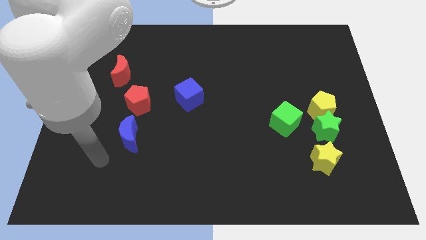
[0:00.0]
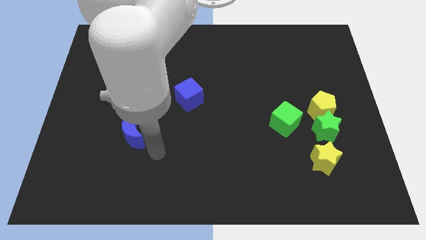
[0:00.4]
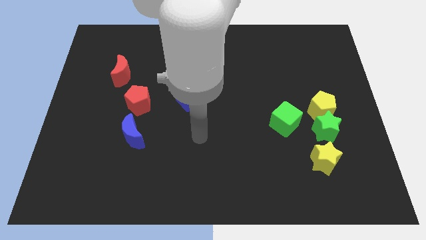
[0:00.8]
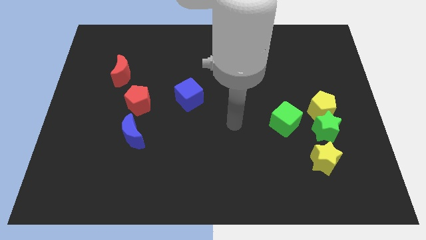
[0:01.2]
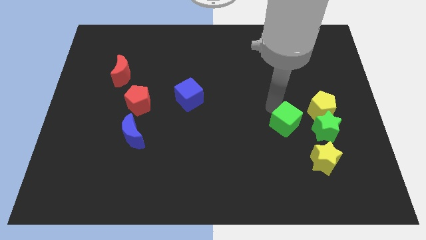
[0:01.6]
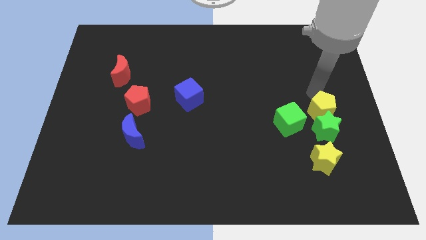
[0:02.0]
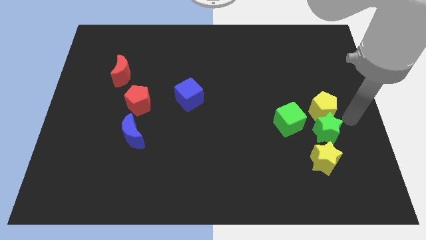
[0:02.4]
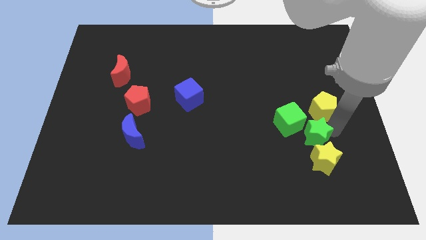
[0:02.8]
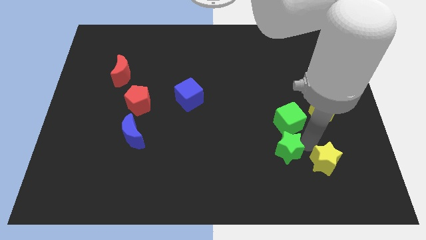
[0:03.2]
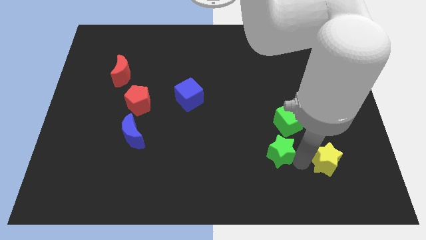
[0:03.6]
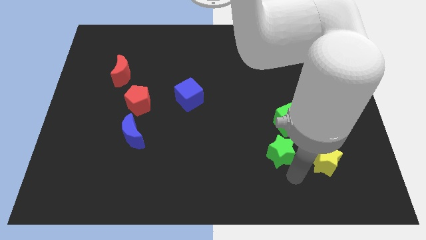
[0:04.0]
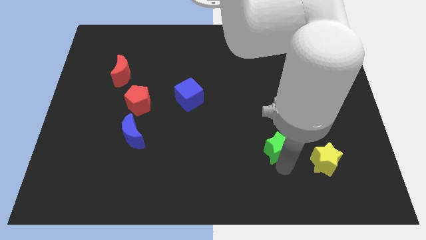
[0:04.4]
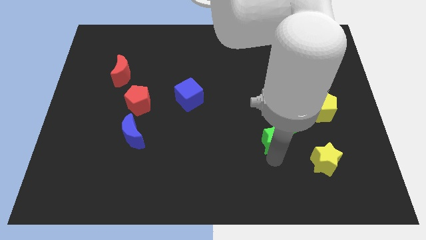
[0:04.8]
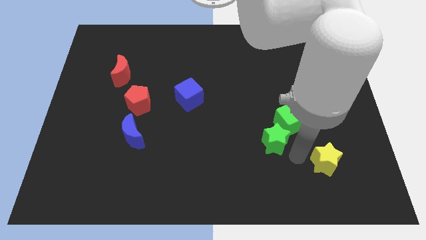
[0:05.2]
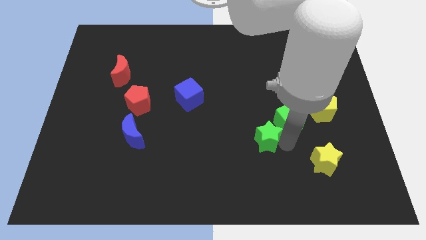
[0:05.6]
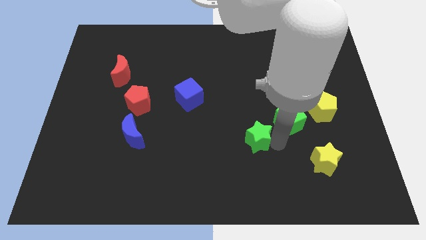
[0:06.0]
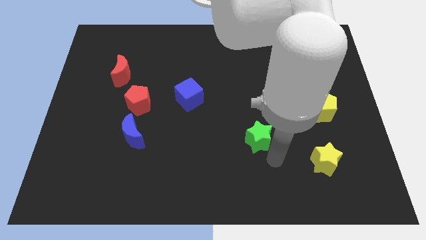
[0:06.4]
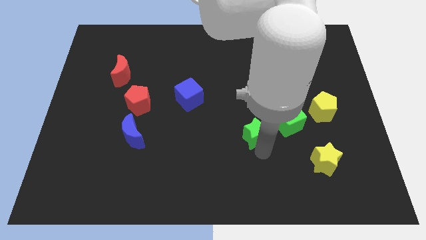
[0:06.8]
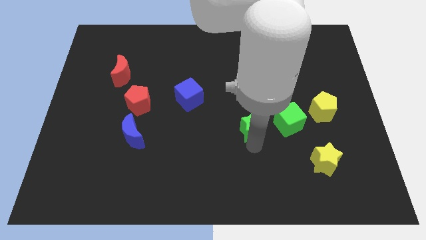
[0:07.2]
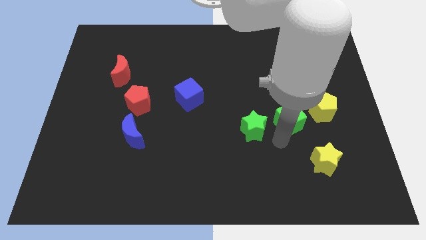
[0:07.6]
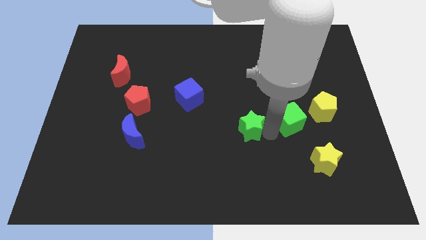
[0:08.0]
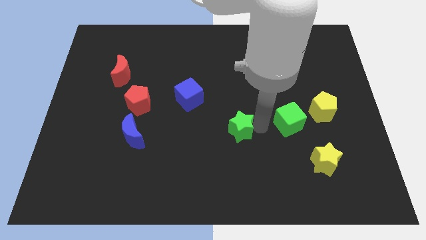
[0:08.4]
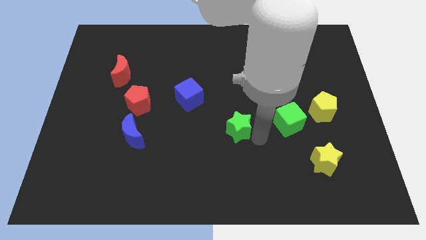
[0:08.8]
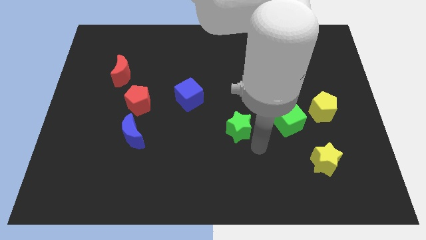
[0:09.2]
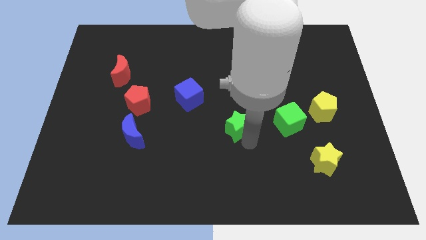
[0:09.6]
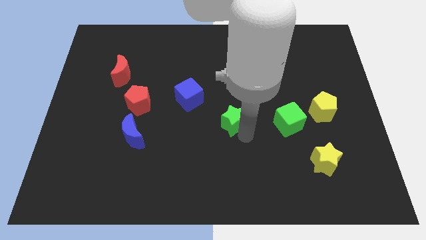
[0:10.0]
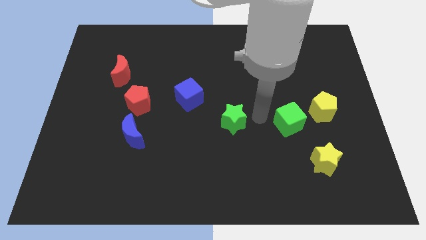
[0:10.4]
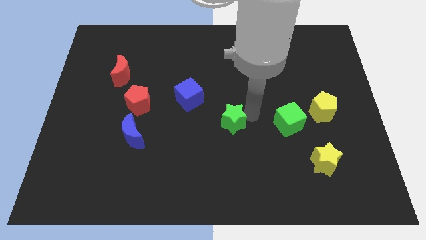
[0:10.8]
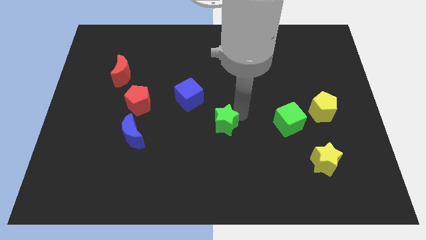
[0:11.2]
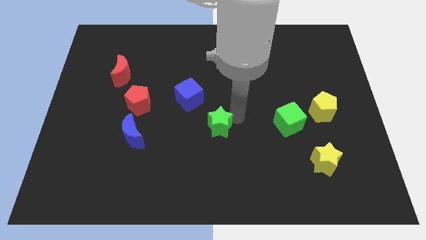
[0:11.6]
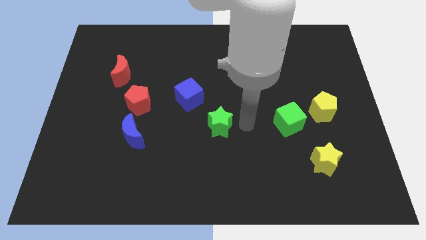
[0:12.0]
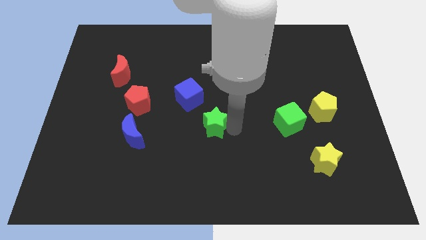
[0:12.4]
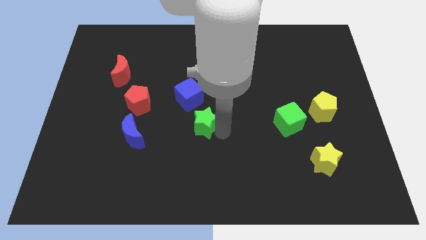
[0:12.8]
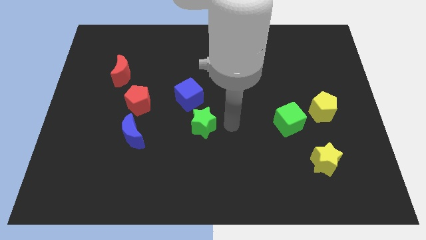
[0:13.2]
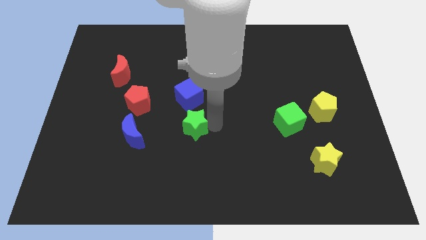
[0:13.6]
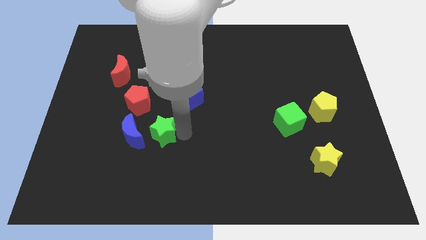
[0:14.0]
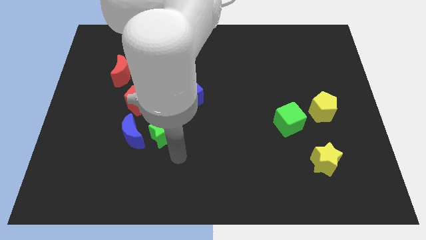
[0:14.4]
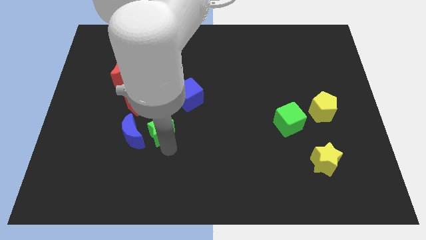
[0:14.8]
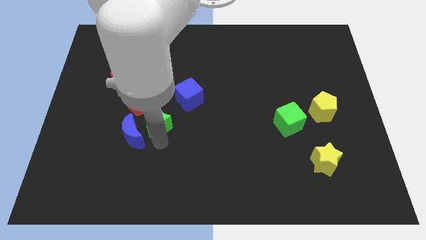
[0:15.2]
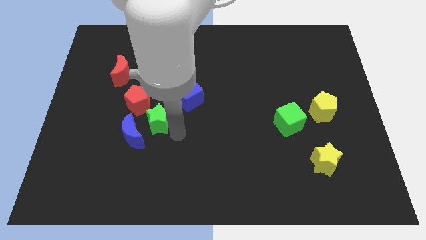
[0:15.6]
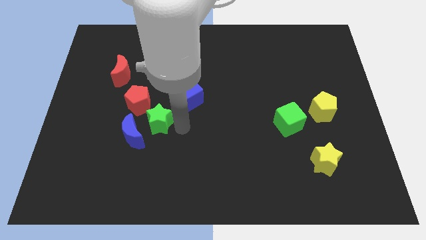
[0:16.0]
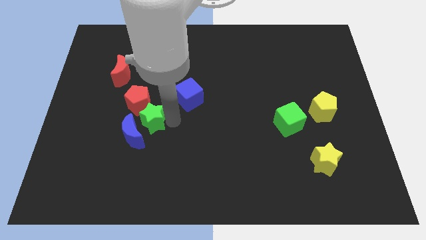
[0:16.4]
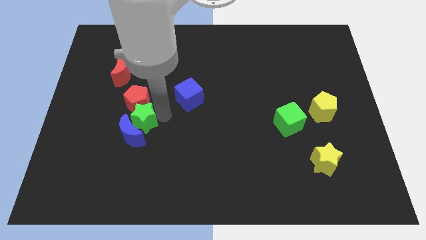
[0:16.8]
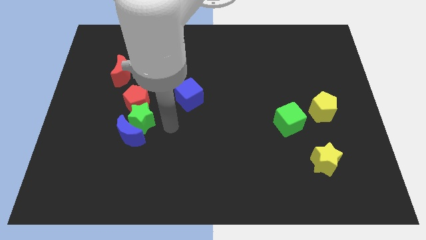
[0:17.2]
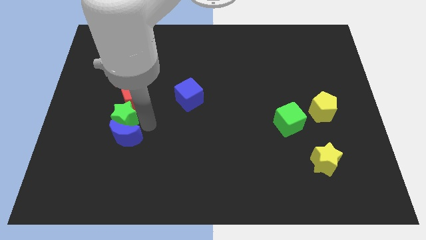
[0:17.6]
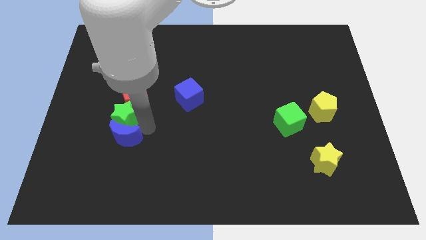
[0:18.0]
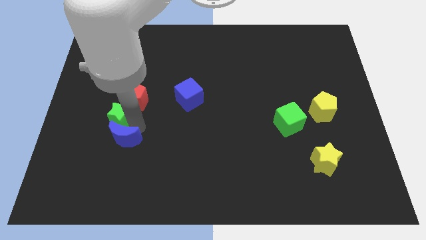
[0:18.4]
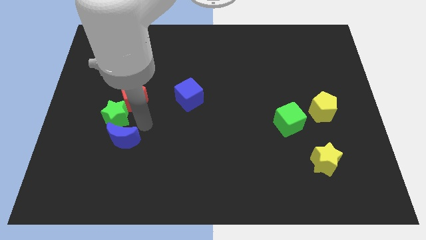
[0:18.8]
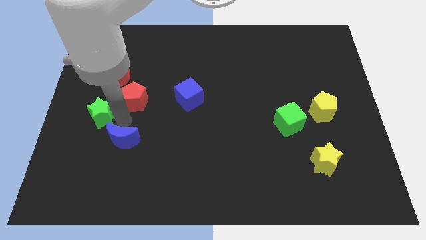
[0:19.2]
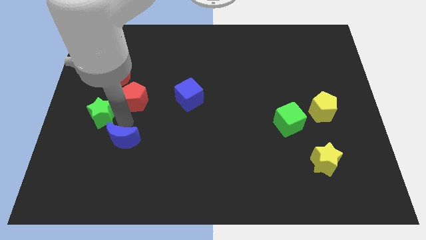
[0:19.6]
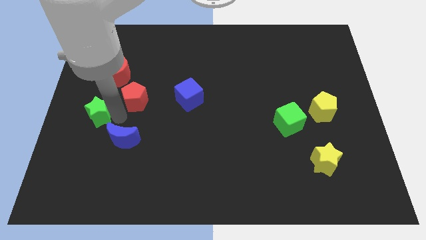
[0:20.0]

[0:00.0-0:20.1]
move the green star to the left side of the board

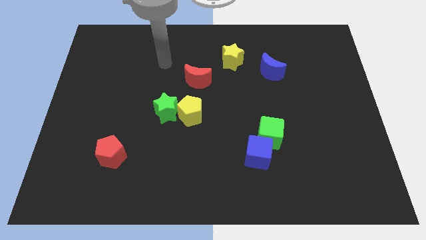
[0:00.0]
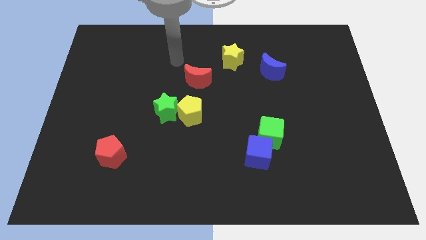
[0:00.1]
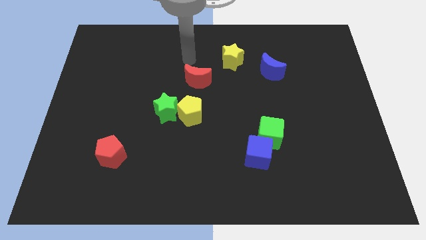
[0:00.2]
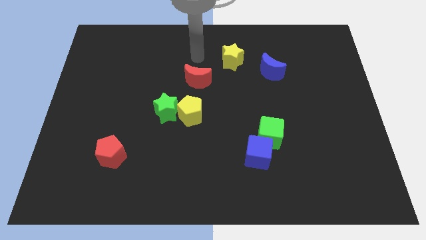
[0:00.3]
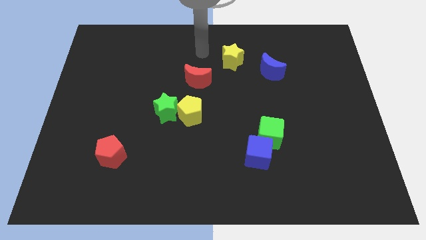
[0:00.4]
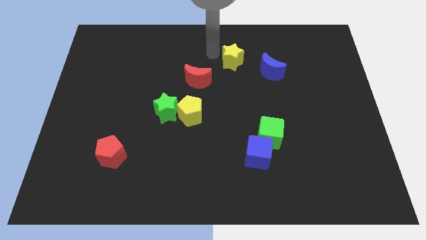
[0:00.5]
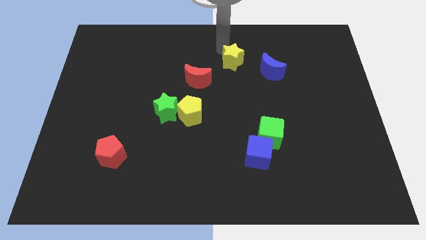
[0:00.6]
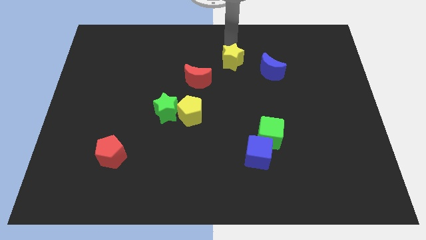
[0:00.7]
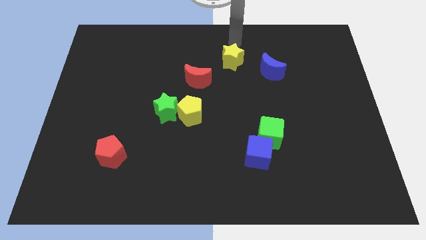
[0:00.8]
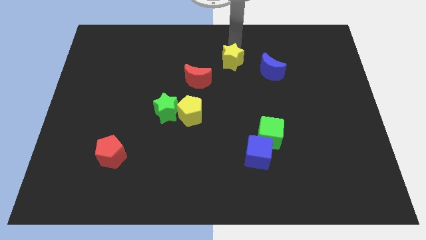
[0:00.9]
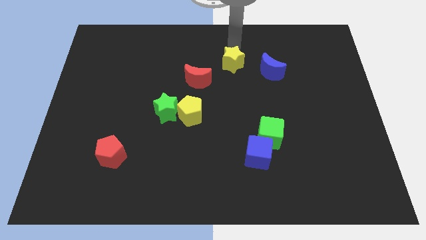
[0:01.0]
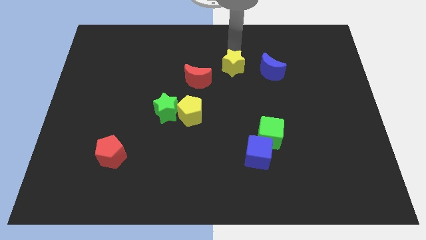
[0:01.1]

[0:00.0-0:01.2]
put the yellow star to the center
